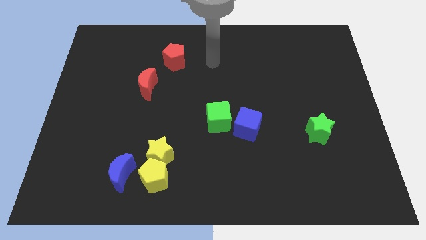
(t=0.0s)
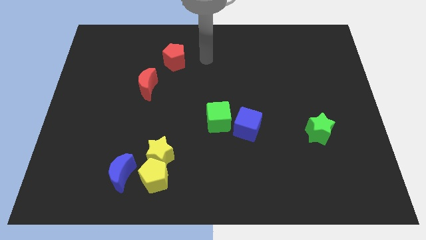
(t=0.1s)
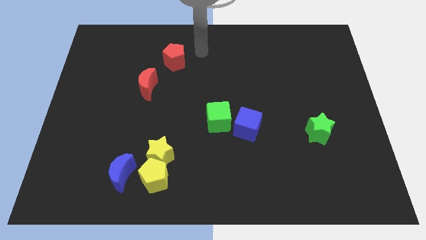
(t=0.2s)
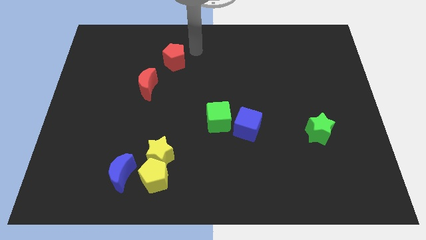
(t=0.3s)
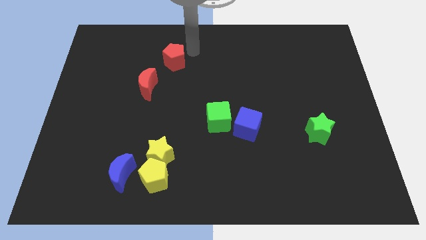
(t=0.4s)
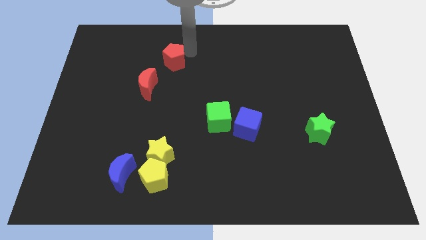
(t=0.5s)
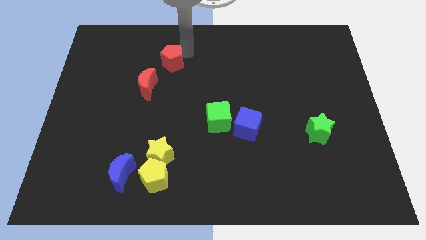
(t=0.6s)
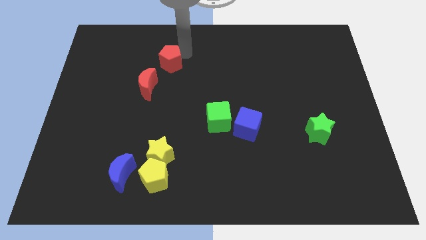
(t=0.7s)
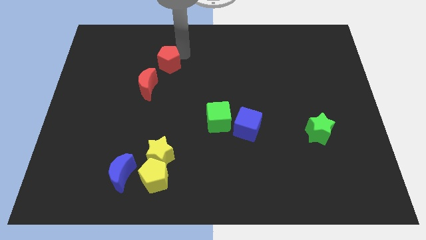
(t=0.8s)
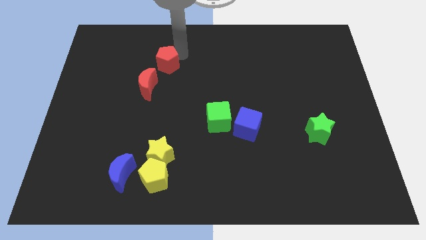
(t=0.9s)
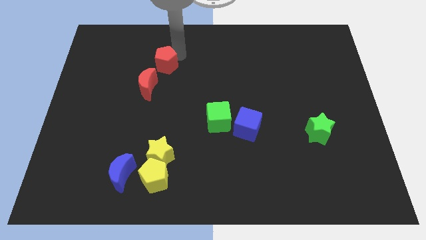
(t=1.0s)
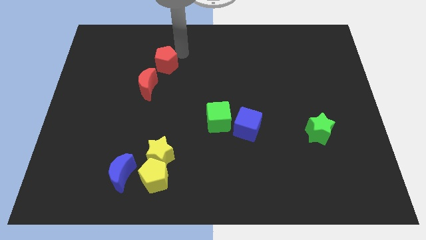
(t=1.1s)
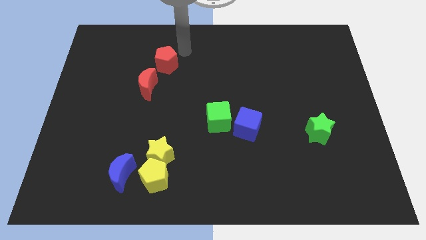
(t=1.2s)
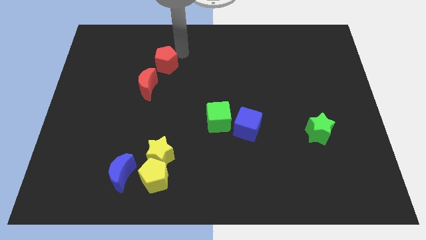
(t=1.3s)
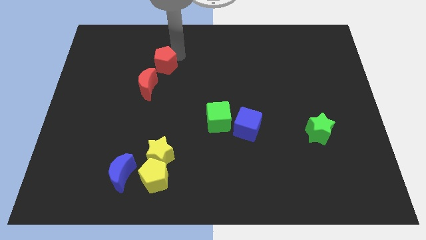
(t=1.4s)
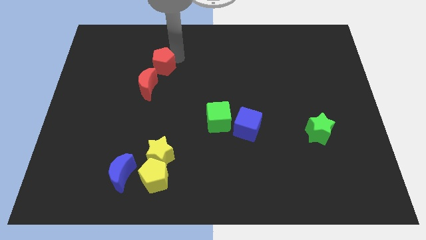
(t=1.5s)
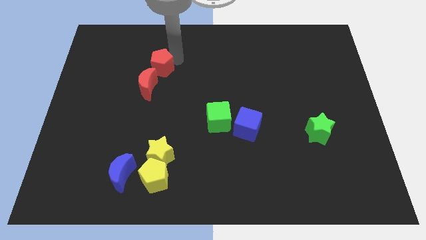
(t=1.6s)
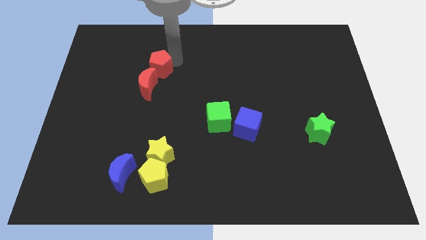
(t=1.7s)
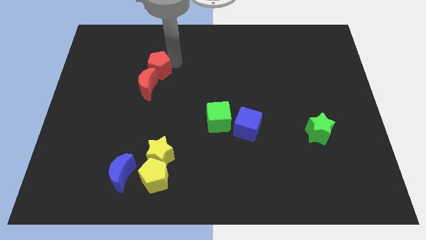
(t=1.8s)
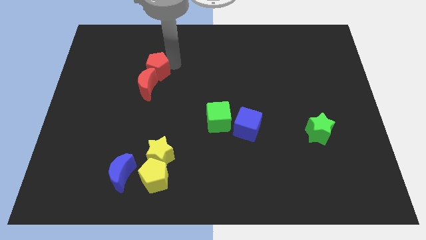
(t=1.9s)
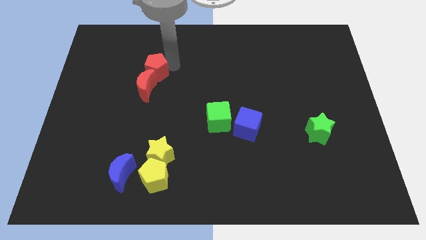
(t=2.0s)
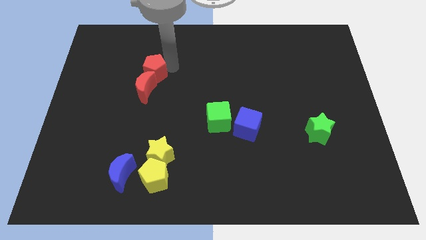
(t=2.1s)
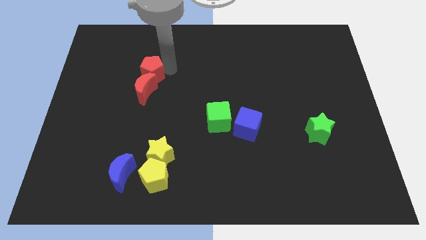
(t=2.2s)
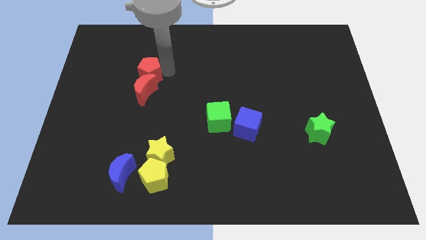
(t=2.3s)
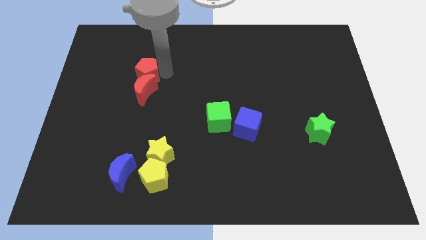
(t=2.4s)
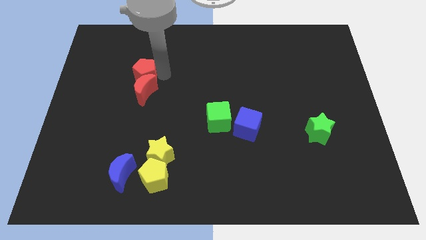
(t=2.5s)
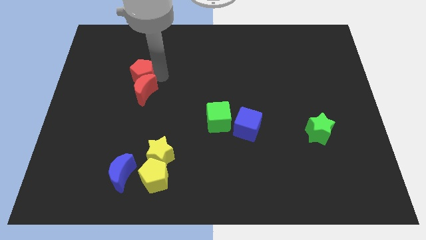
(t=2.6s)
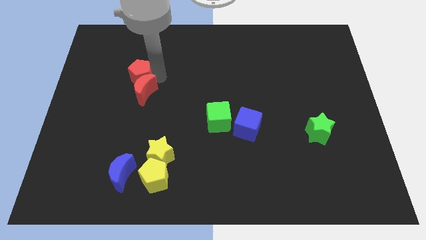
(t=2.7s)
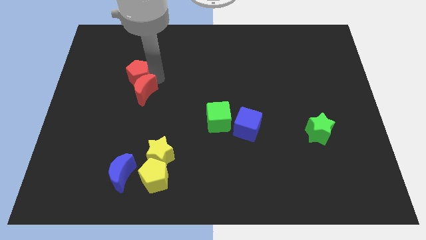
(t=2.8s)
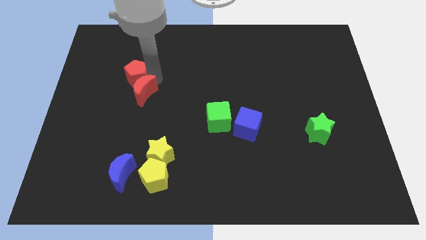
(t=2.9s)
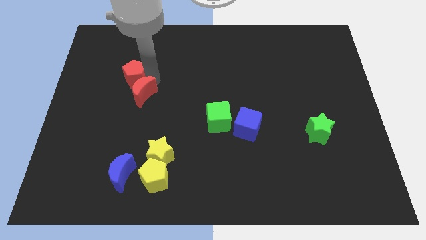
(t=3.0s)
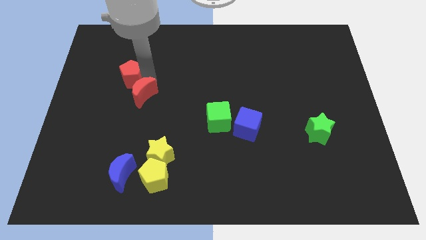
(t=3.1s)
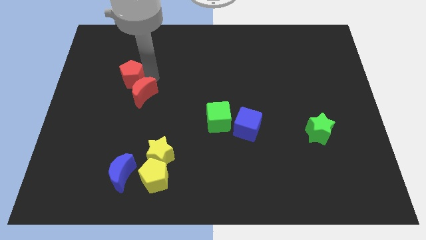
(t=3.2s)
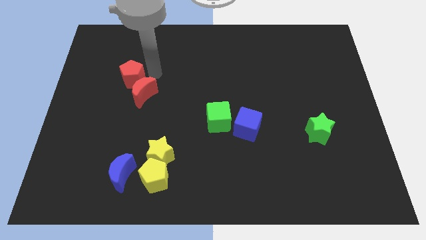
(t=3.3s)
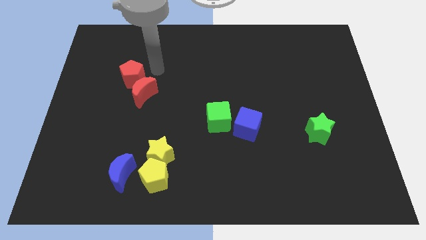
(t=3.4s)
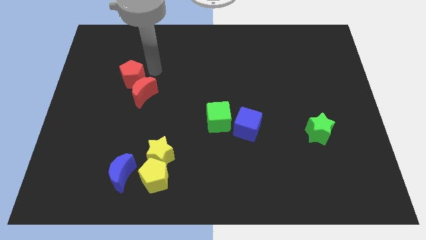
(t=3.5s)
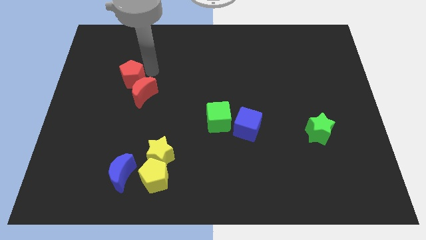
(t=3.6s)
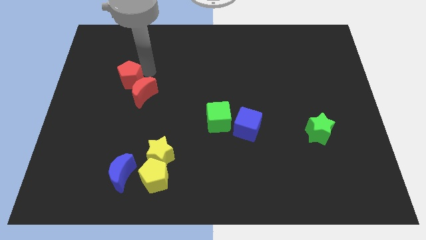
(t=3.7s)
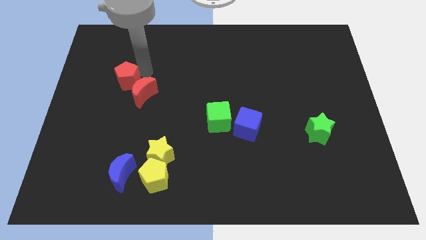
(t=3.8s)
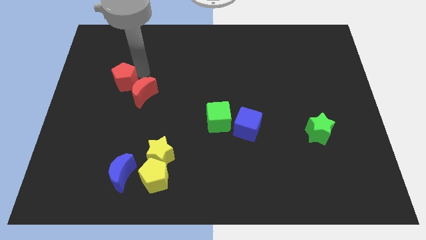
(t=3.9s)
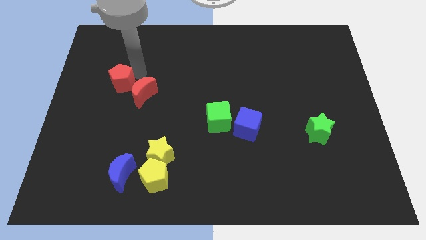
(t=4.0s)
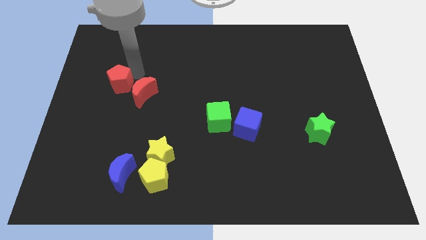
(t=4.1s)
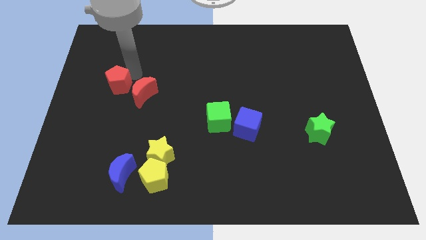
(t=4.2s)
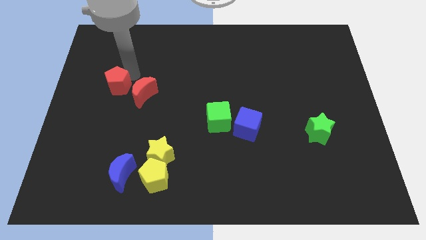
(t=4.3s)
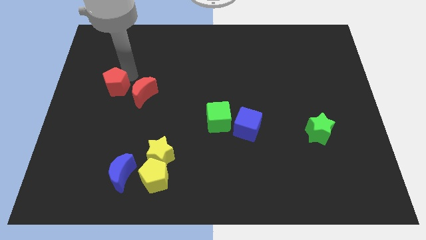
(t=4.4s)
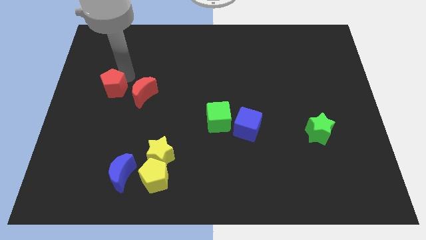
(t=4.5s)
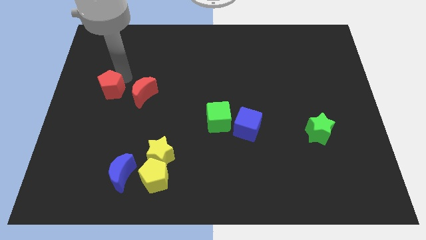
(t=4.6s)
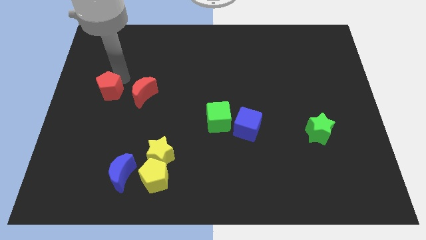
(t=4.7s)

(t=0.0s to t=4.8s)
push the red pentagon to the left side of the board

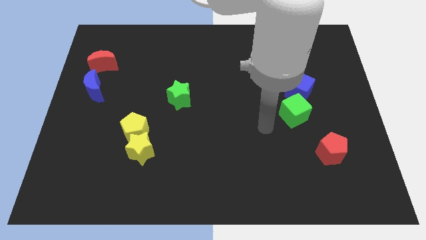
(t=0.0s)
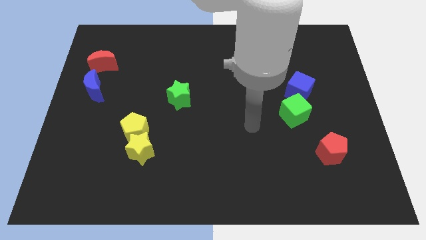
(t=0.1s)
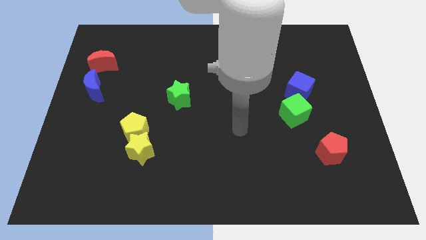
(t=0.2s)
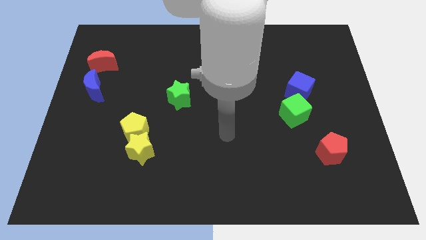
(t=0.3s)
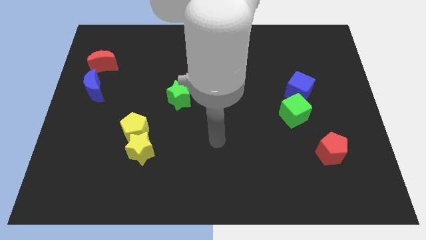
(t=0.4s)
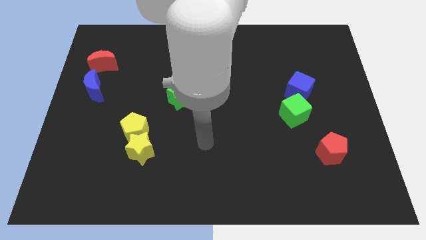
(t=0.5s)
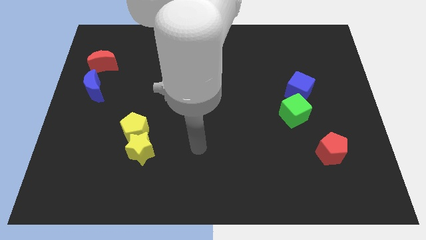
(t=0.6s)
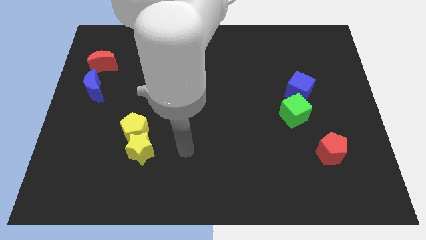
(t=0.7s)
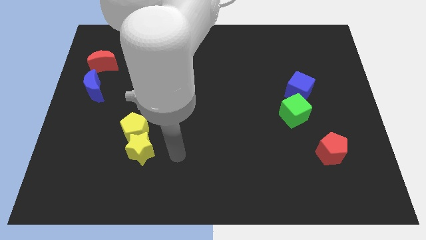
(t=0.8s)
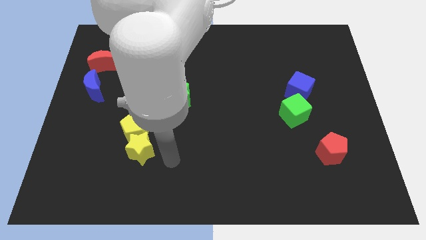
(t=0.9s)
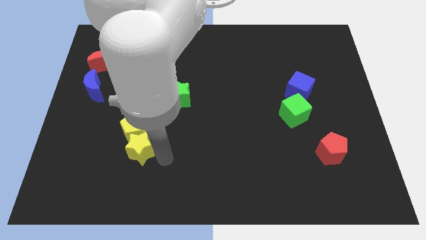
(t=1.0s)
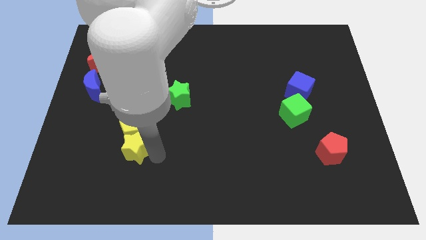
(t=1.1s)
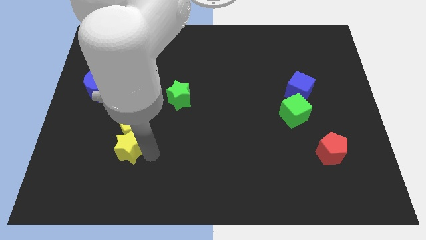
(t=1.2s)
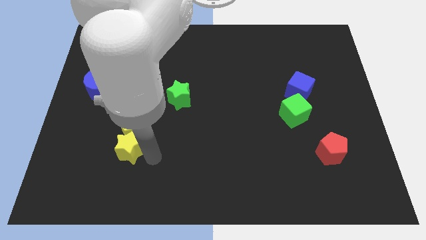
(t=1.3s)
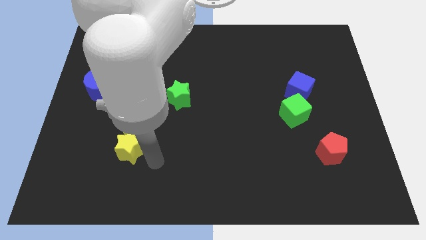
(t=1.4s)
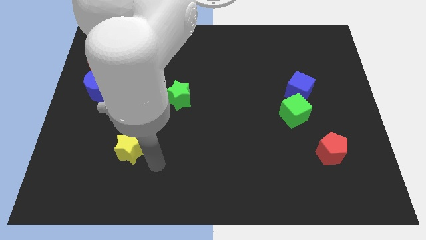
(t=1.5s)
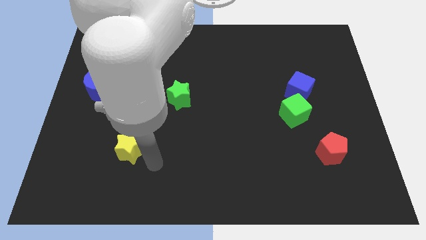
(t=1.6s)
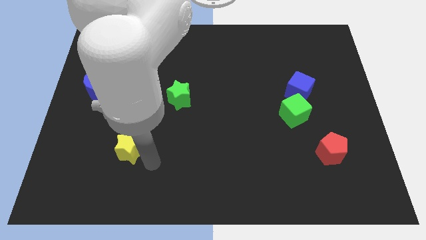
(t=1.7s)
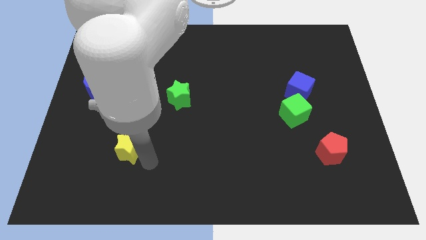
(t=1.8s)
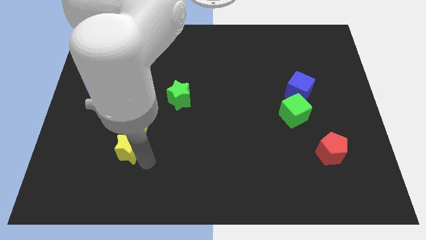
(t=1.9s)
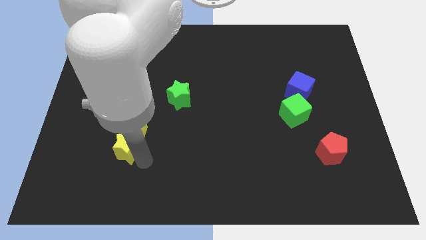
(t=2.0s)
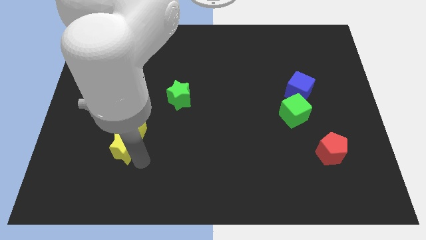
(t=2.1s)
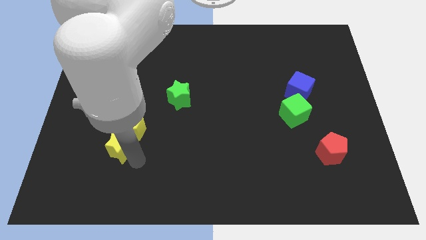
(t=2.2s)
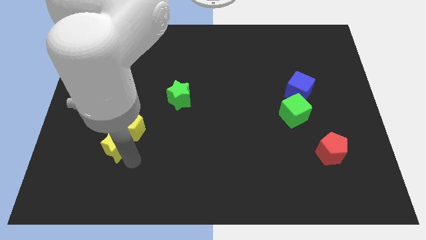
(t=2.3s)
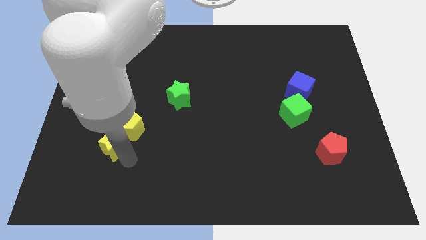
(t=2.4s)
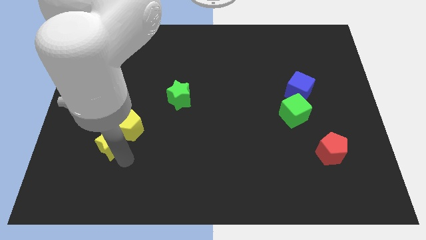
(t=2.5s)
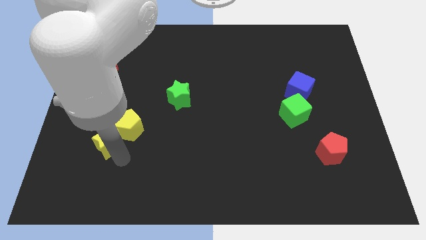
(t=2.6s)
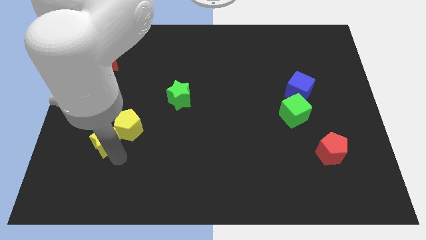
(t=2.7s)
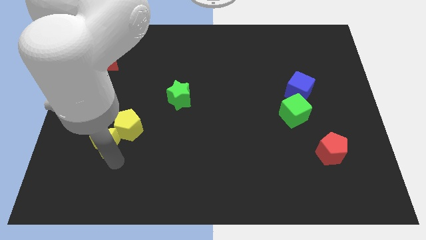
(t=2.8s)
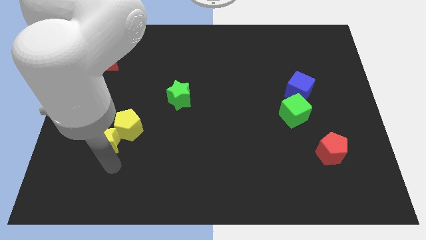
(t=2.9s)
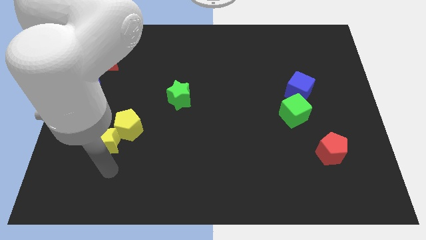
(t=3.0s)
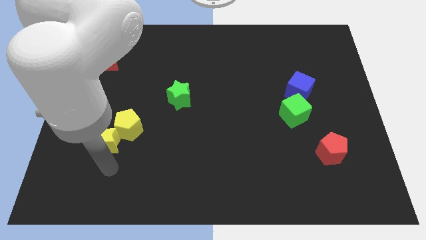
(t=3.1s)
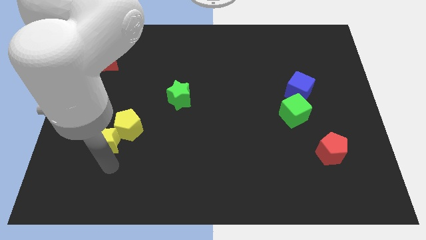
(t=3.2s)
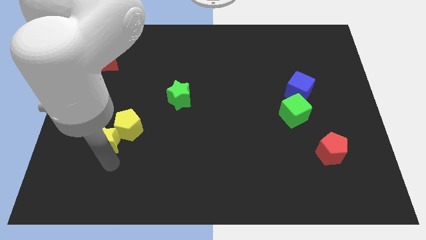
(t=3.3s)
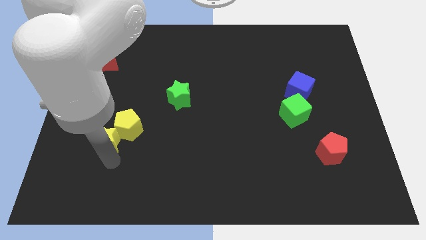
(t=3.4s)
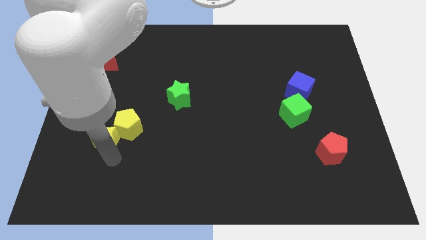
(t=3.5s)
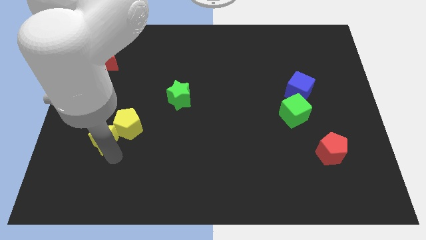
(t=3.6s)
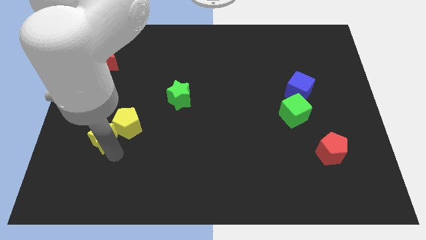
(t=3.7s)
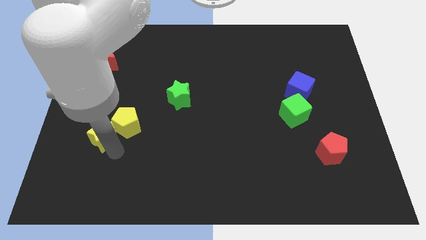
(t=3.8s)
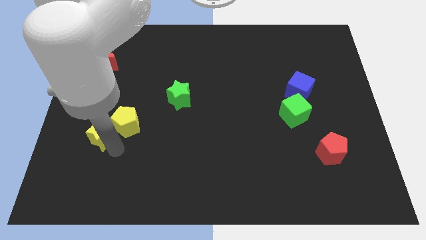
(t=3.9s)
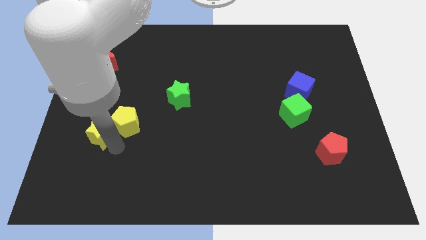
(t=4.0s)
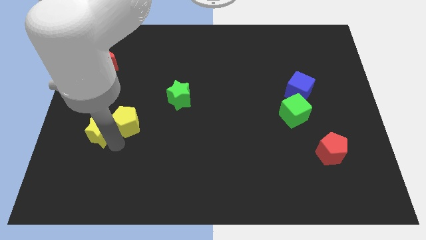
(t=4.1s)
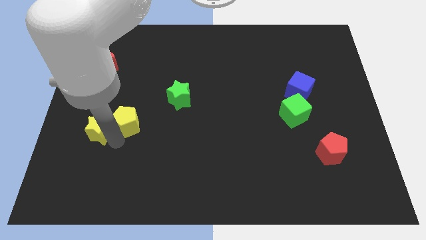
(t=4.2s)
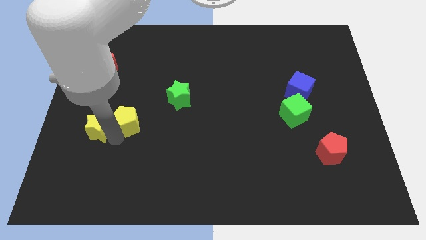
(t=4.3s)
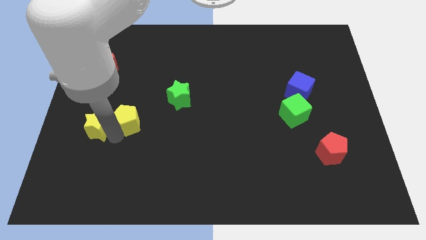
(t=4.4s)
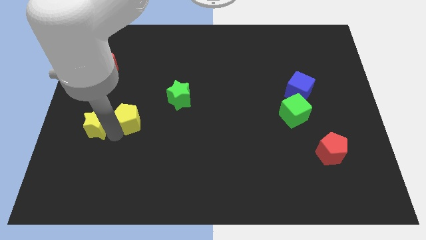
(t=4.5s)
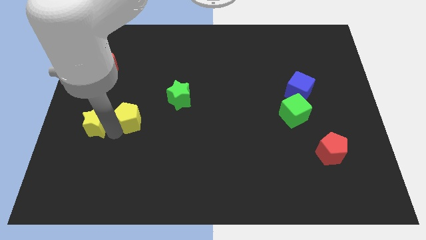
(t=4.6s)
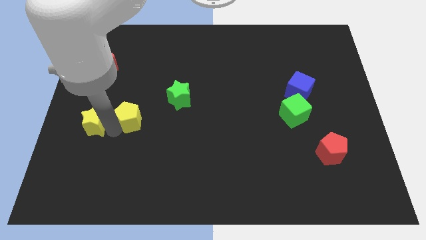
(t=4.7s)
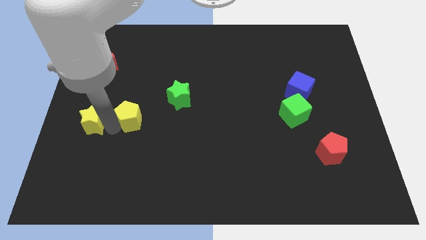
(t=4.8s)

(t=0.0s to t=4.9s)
push the yellow star to the left side of the board
